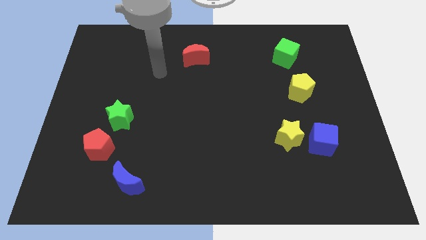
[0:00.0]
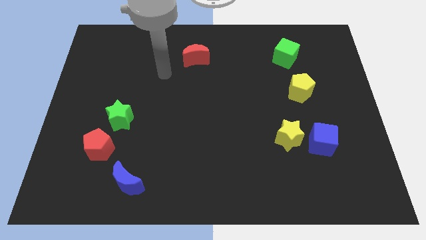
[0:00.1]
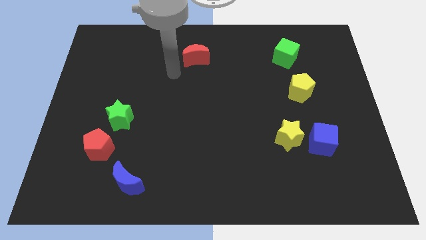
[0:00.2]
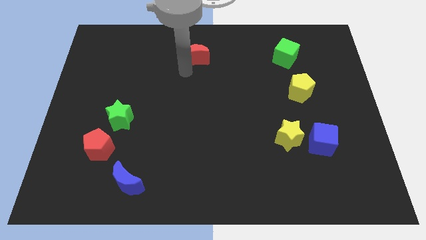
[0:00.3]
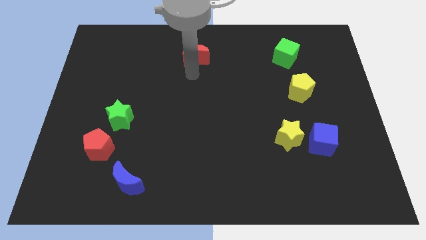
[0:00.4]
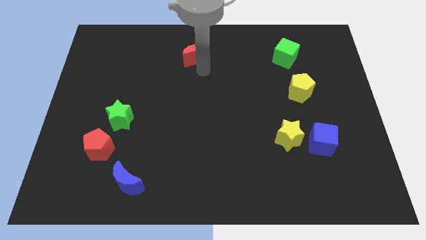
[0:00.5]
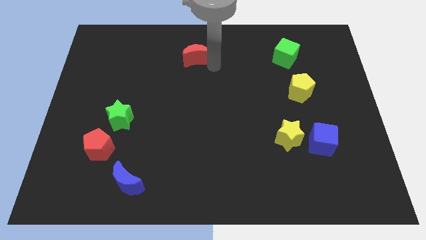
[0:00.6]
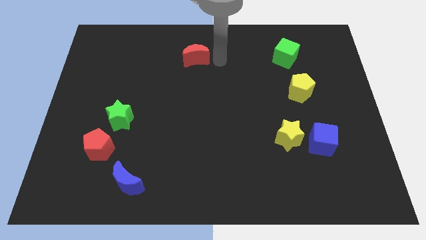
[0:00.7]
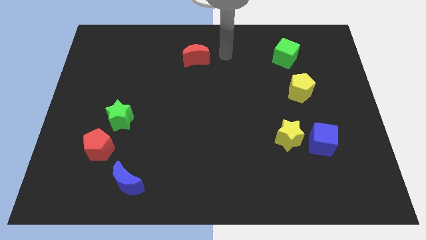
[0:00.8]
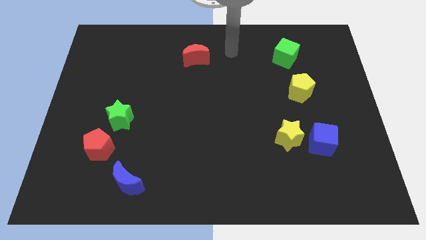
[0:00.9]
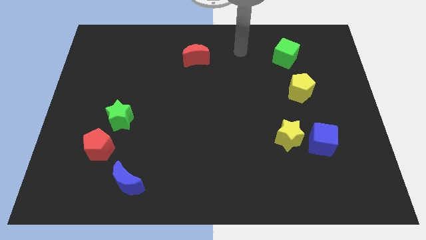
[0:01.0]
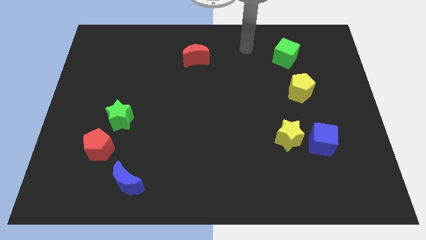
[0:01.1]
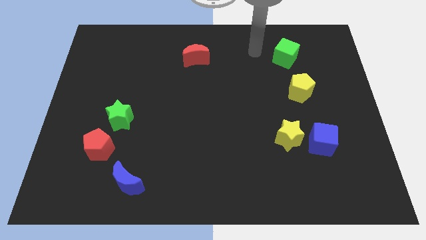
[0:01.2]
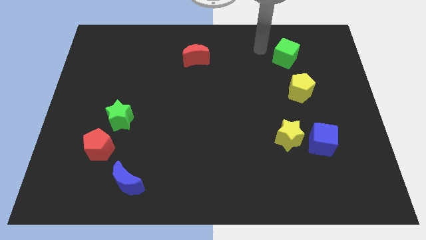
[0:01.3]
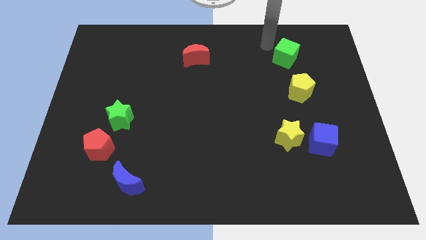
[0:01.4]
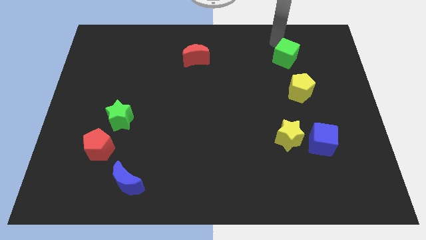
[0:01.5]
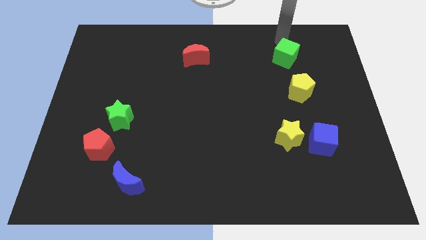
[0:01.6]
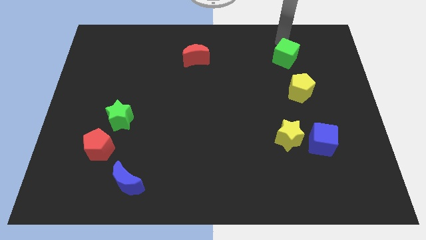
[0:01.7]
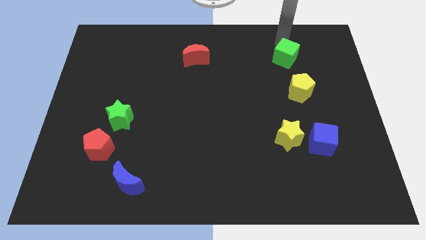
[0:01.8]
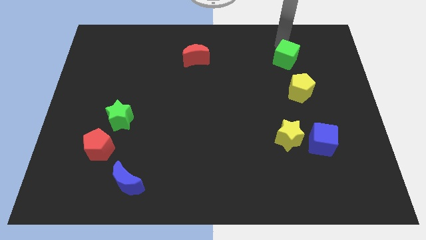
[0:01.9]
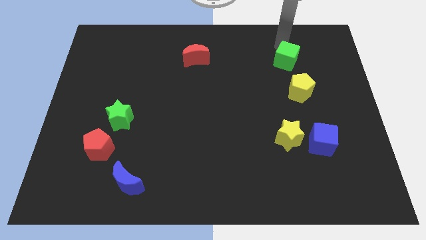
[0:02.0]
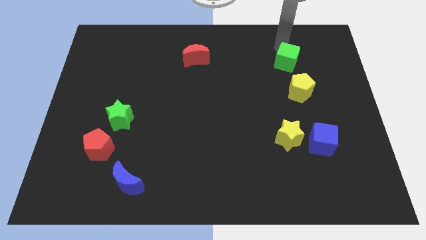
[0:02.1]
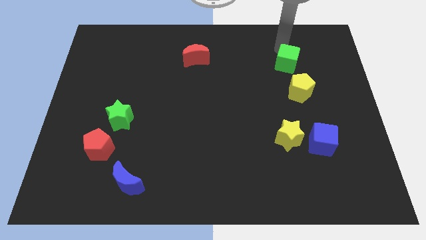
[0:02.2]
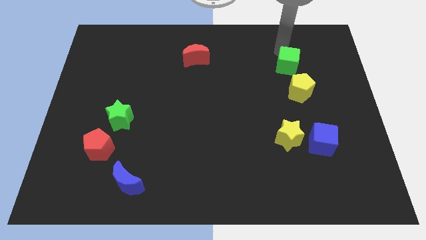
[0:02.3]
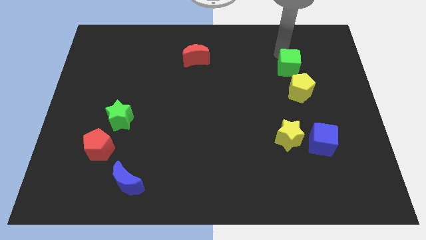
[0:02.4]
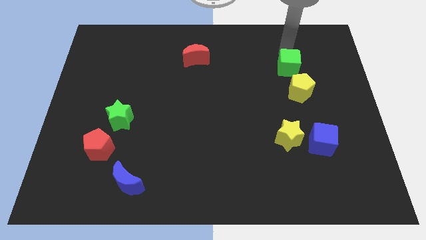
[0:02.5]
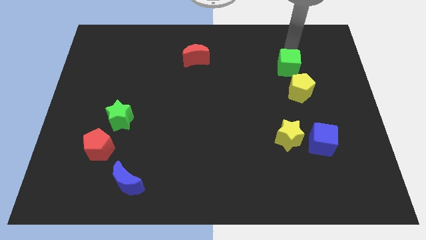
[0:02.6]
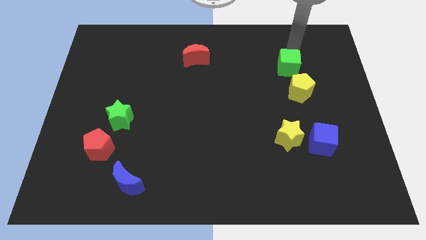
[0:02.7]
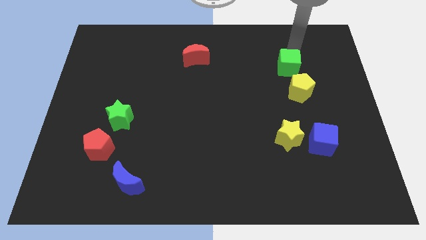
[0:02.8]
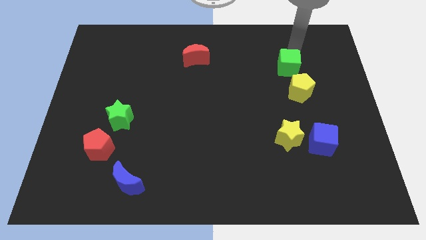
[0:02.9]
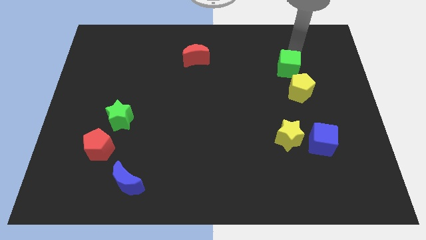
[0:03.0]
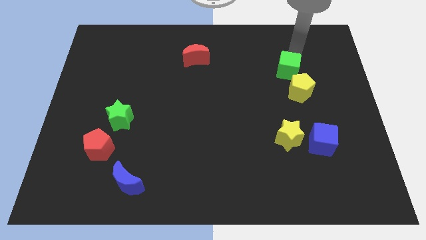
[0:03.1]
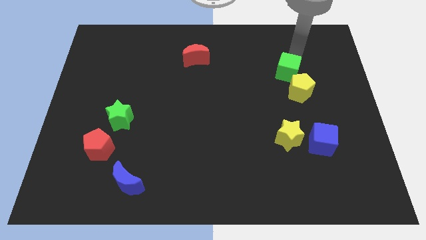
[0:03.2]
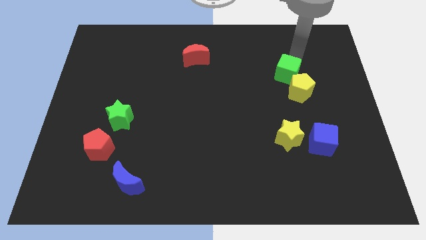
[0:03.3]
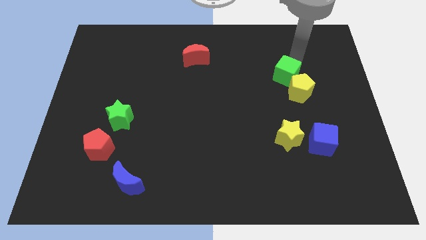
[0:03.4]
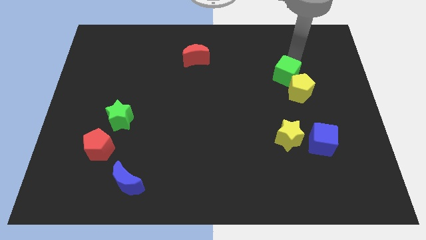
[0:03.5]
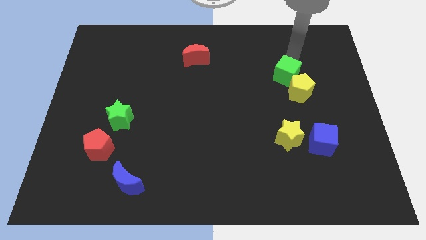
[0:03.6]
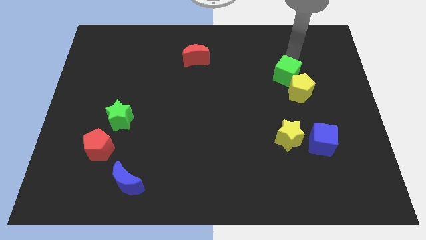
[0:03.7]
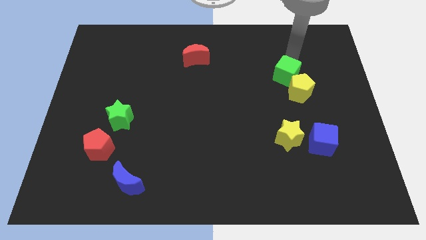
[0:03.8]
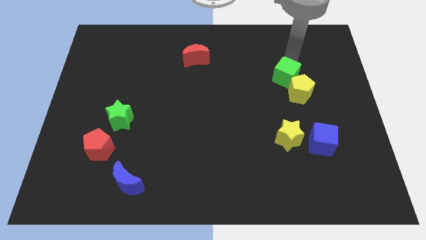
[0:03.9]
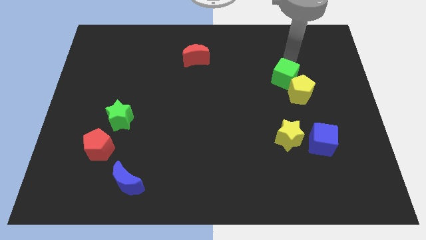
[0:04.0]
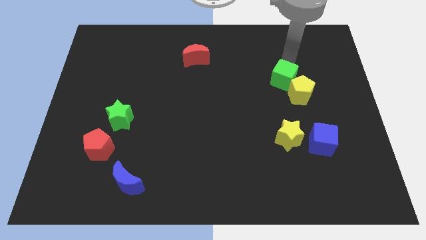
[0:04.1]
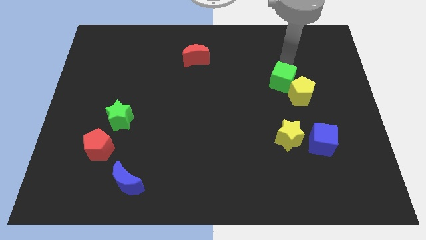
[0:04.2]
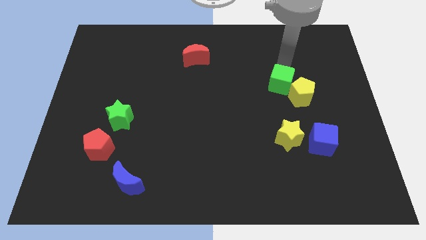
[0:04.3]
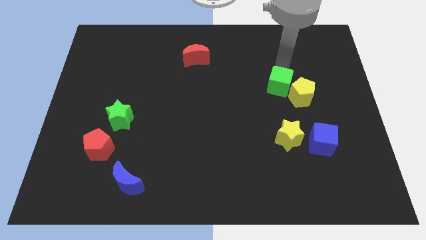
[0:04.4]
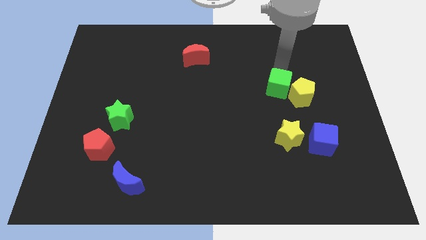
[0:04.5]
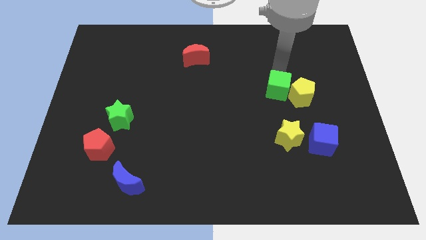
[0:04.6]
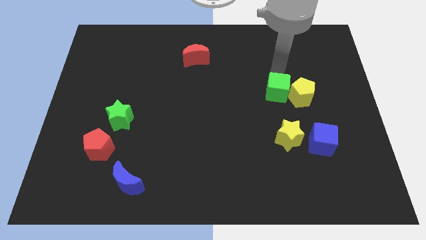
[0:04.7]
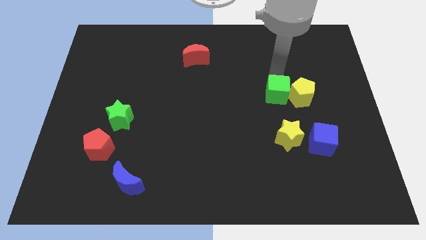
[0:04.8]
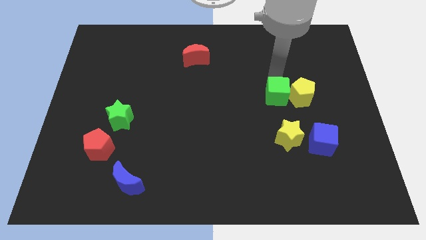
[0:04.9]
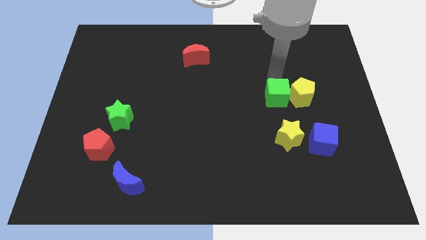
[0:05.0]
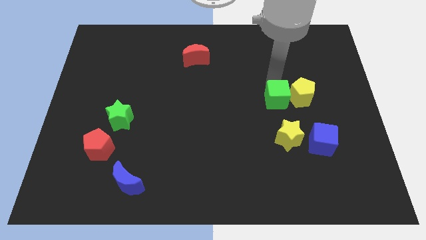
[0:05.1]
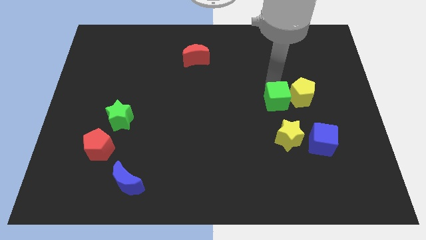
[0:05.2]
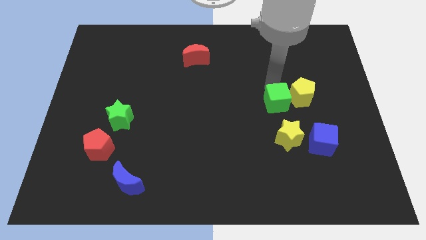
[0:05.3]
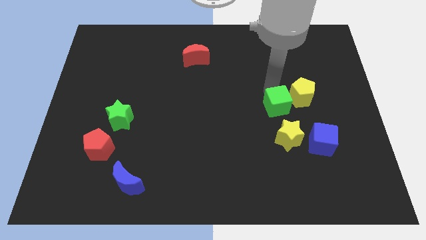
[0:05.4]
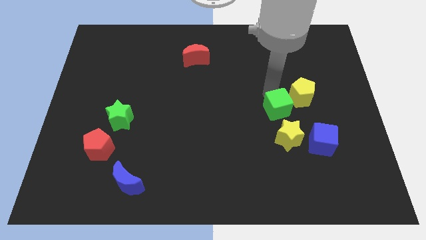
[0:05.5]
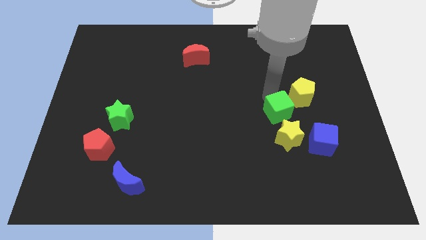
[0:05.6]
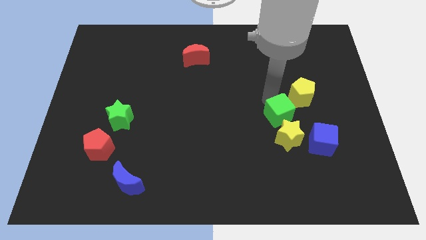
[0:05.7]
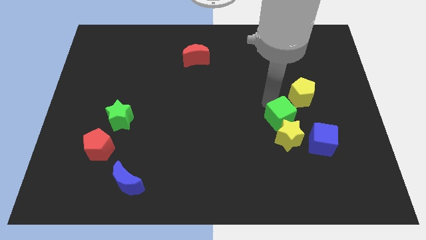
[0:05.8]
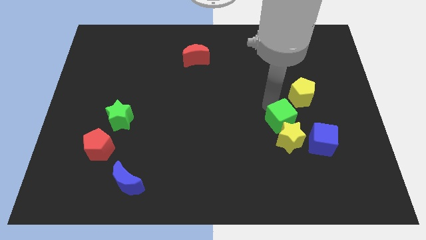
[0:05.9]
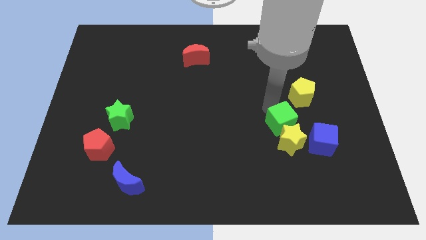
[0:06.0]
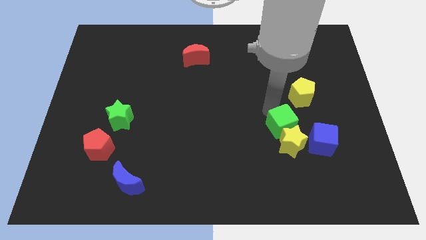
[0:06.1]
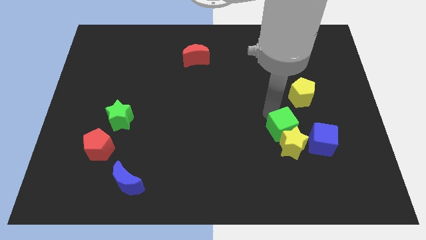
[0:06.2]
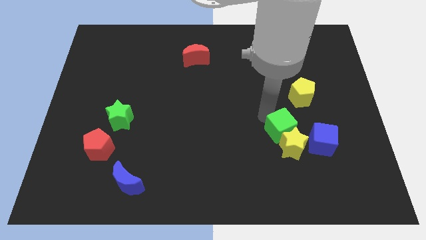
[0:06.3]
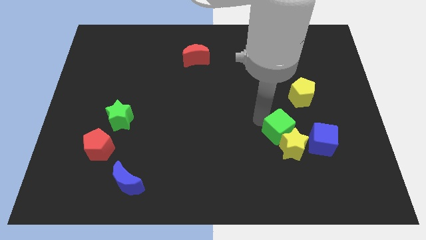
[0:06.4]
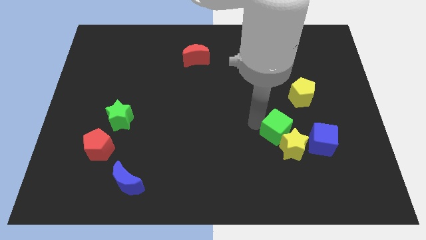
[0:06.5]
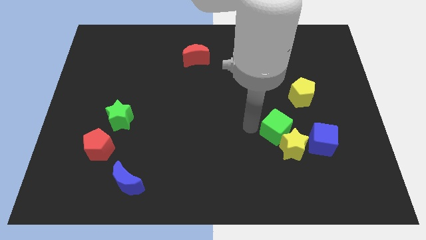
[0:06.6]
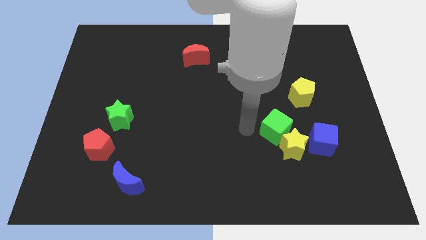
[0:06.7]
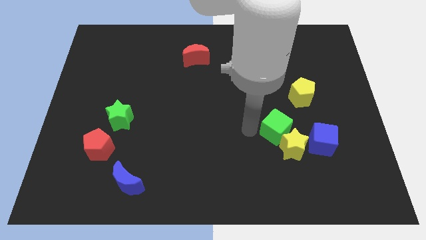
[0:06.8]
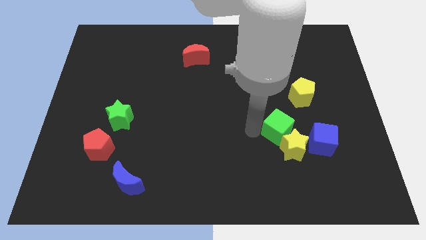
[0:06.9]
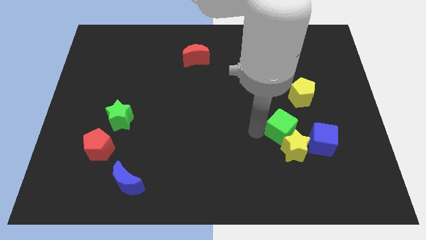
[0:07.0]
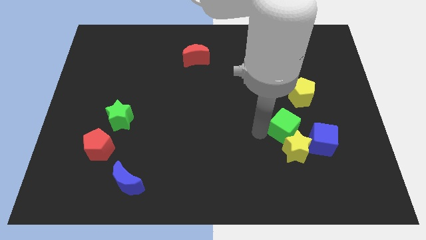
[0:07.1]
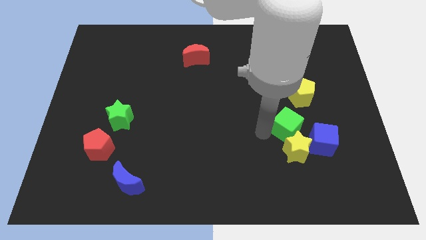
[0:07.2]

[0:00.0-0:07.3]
slide the green cube to the bottom side of the yellow pentagon
